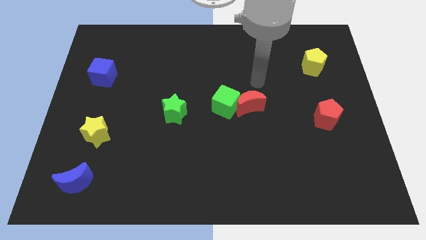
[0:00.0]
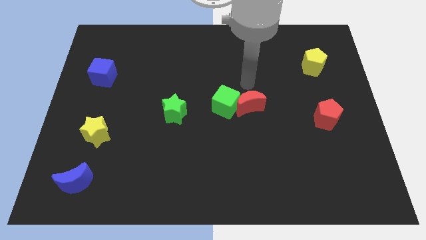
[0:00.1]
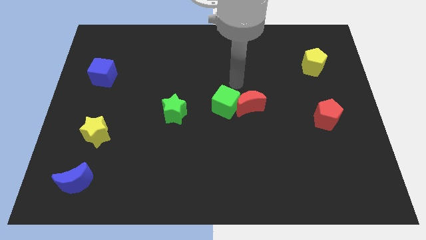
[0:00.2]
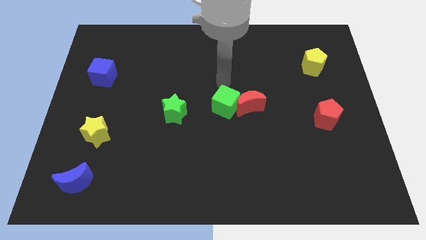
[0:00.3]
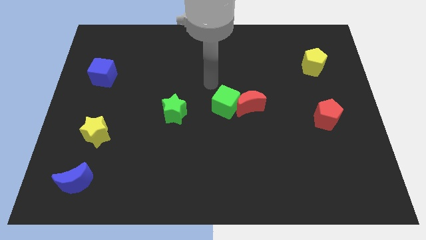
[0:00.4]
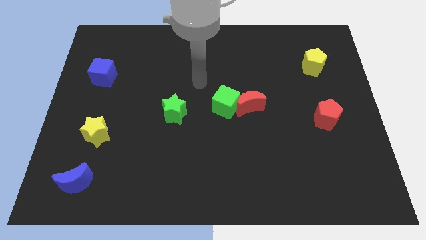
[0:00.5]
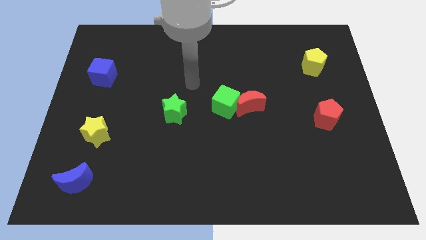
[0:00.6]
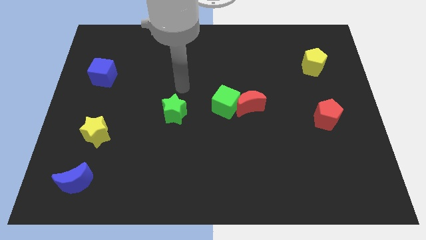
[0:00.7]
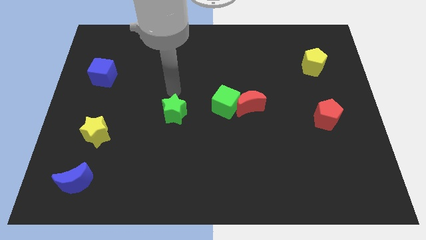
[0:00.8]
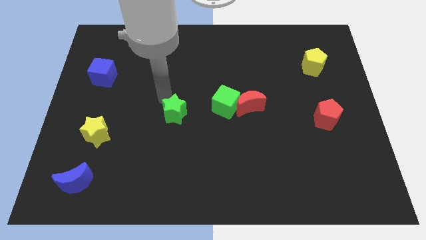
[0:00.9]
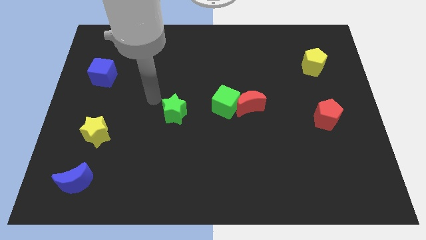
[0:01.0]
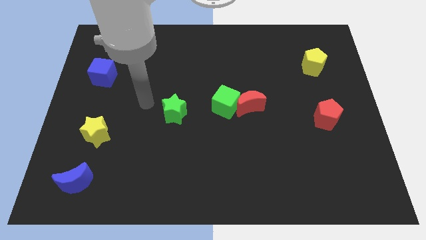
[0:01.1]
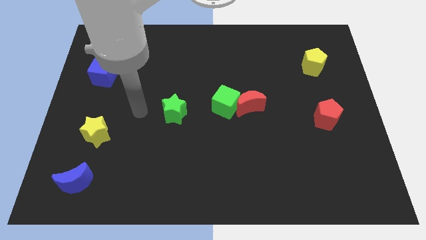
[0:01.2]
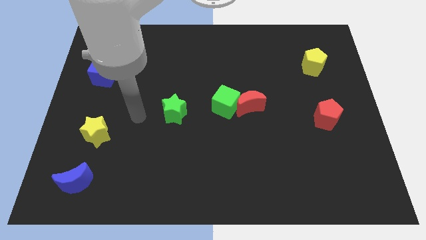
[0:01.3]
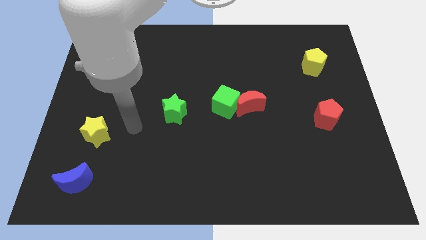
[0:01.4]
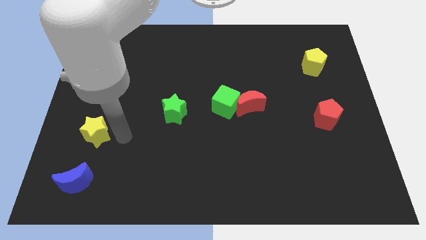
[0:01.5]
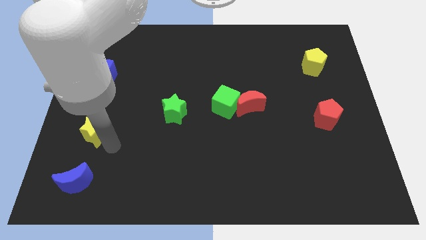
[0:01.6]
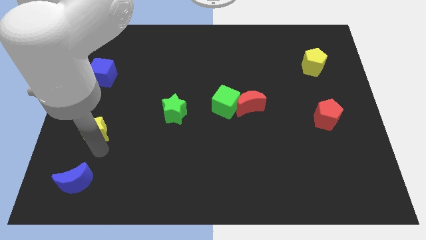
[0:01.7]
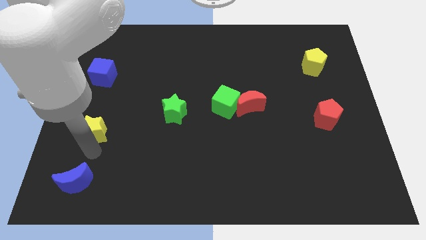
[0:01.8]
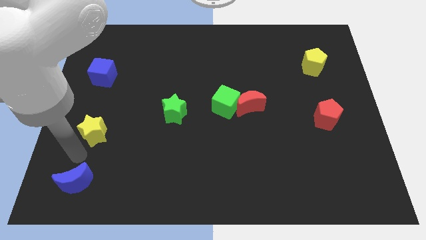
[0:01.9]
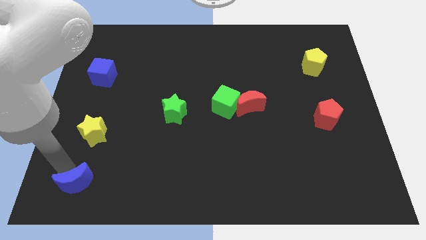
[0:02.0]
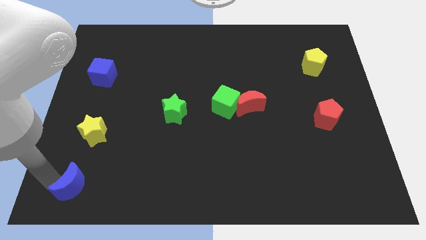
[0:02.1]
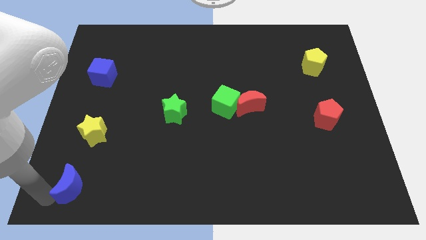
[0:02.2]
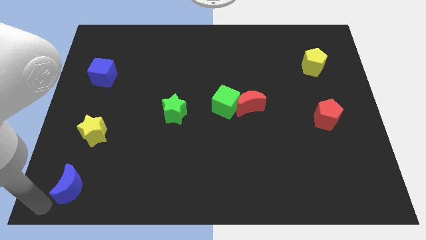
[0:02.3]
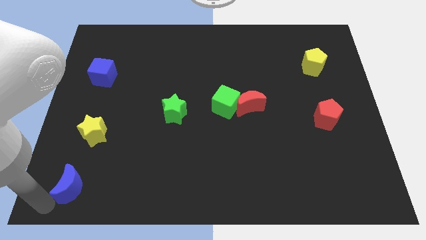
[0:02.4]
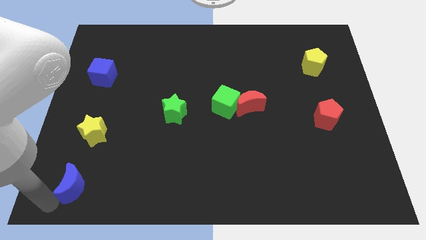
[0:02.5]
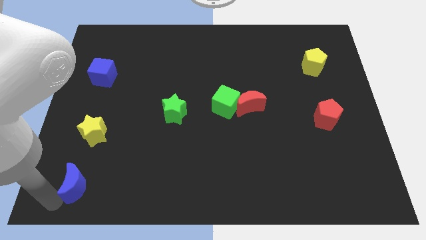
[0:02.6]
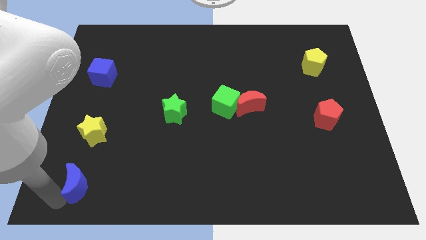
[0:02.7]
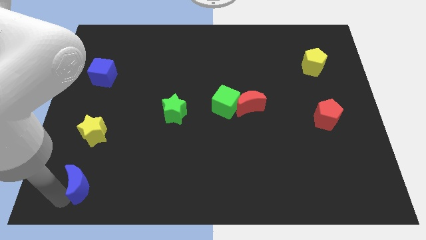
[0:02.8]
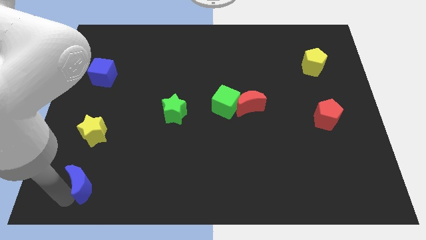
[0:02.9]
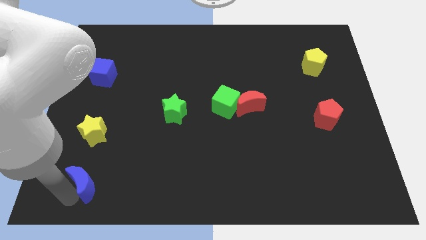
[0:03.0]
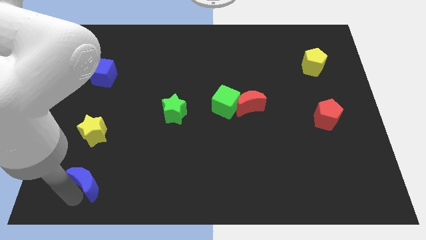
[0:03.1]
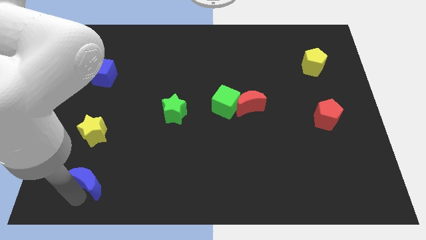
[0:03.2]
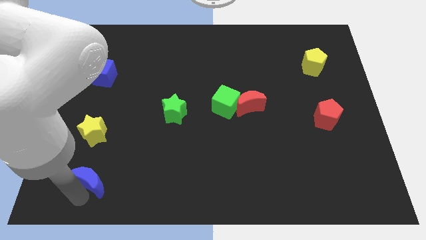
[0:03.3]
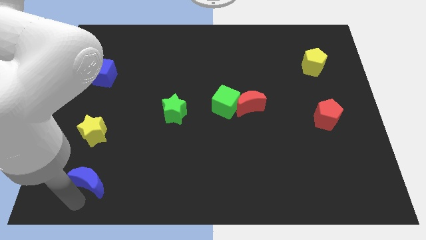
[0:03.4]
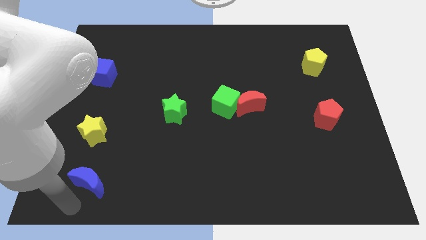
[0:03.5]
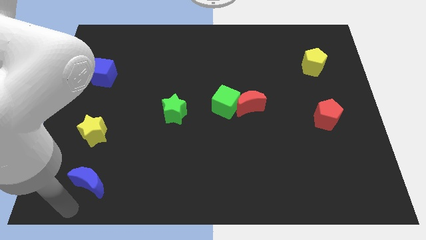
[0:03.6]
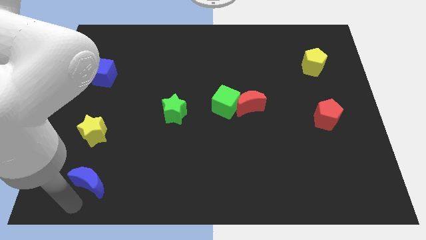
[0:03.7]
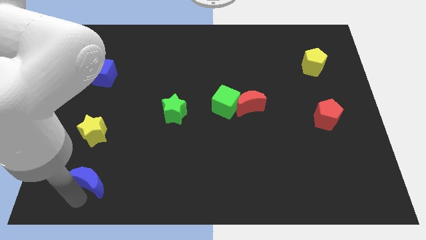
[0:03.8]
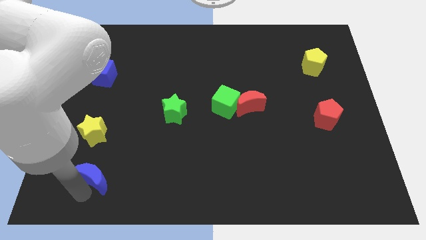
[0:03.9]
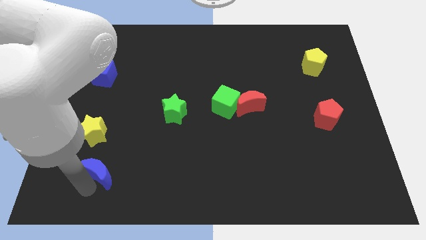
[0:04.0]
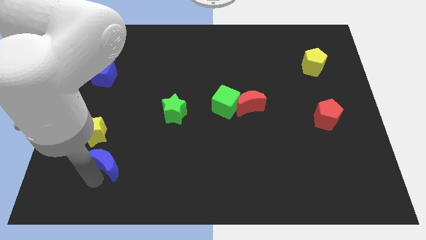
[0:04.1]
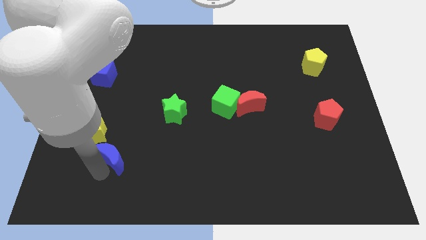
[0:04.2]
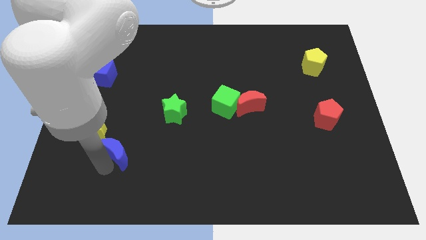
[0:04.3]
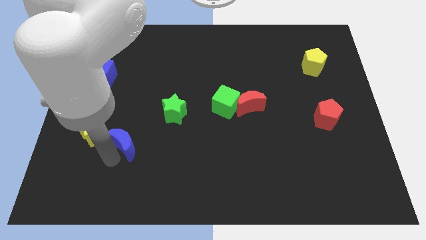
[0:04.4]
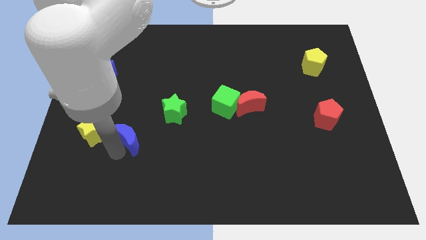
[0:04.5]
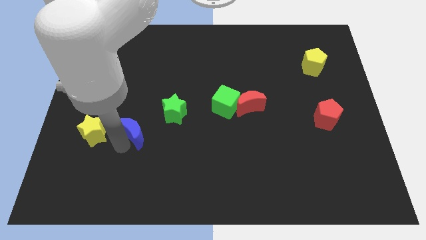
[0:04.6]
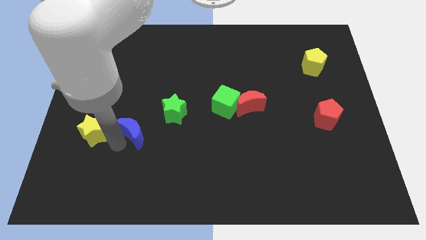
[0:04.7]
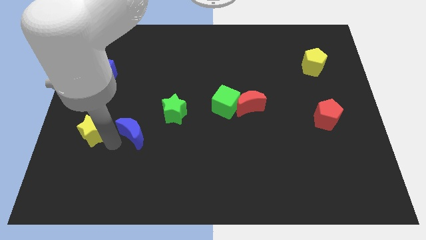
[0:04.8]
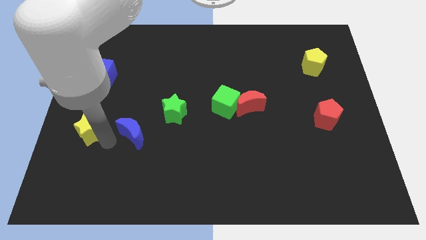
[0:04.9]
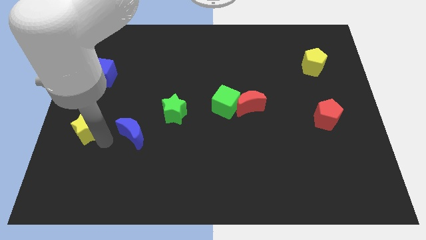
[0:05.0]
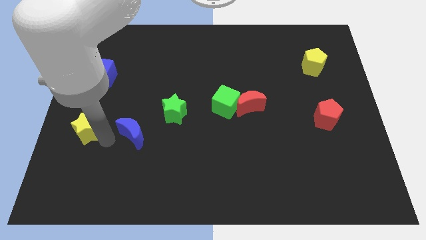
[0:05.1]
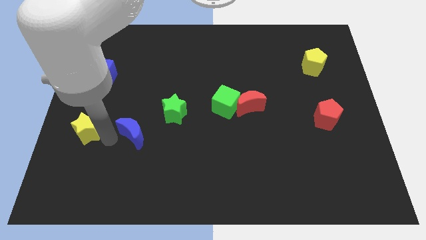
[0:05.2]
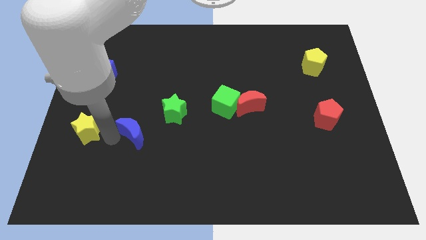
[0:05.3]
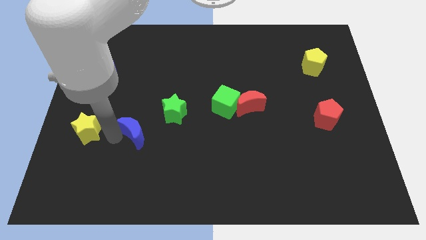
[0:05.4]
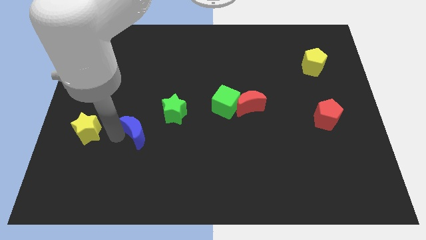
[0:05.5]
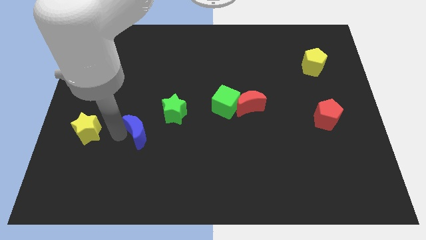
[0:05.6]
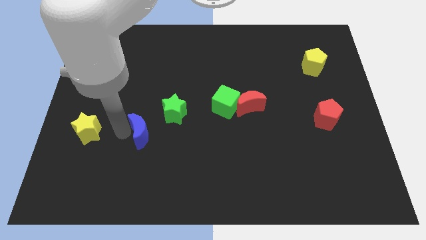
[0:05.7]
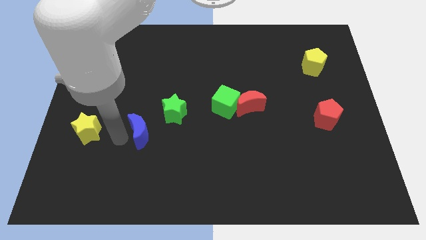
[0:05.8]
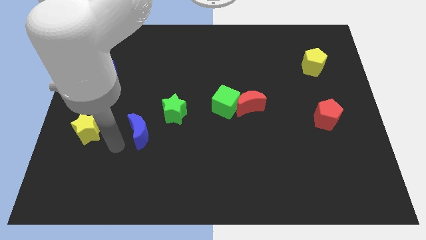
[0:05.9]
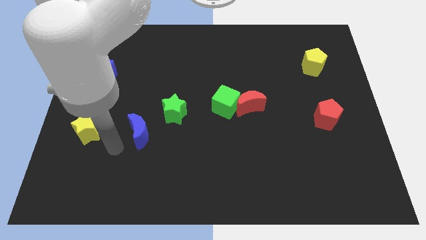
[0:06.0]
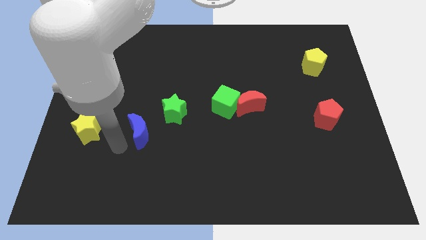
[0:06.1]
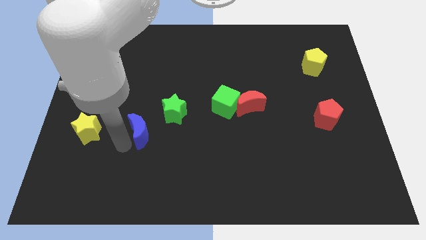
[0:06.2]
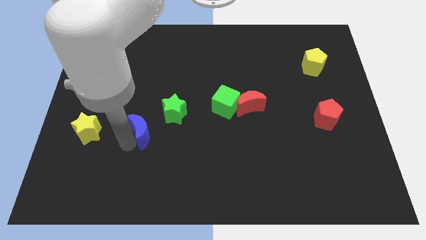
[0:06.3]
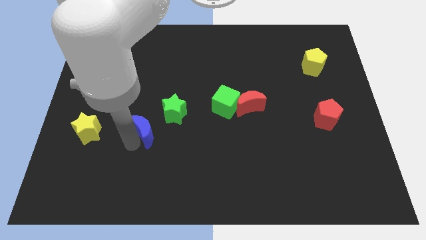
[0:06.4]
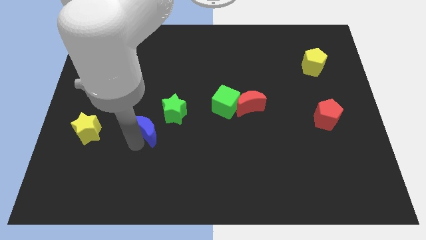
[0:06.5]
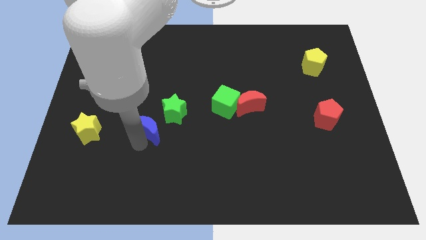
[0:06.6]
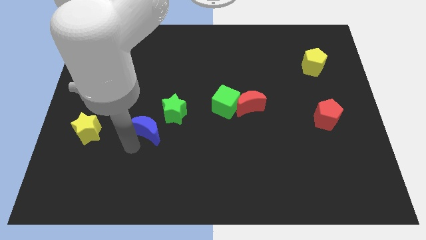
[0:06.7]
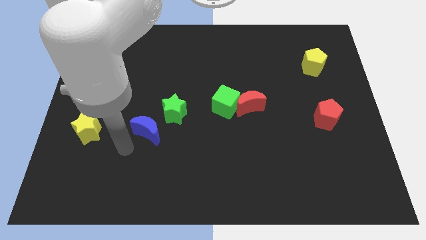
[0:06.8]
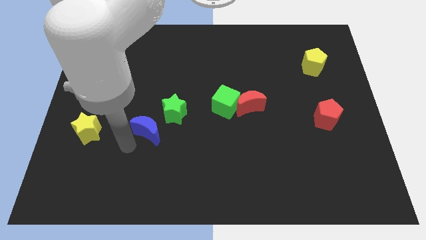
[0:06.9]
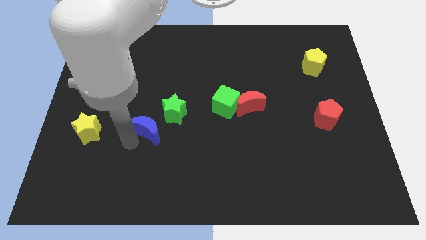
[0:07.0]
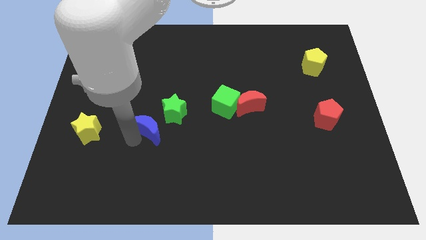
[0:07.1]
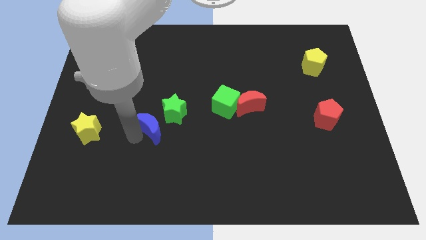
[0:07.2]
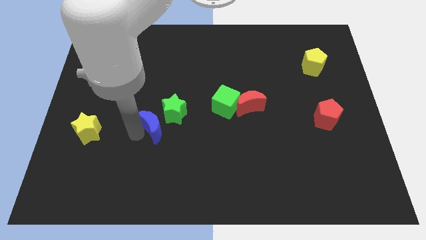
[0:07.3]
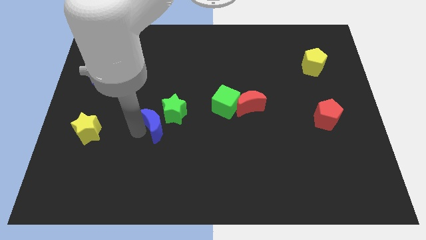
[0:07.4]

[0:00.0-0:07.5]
push the blue moon to the green star

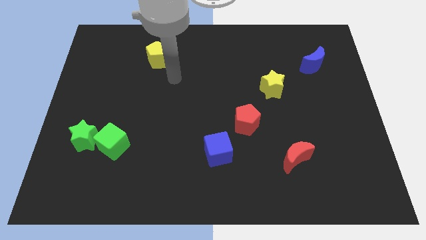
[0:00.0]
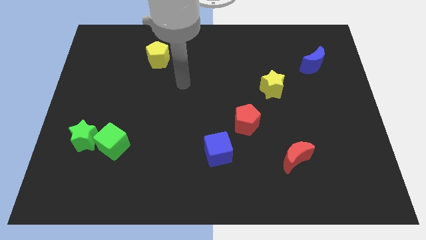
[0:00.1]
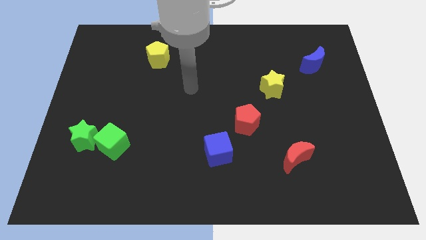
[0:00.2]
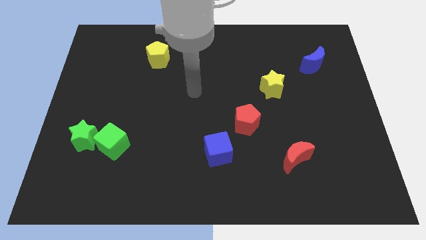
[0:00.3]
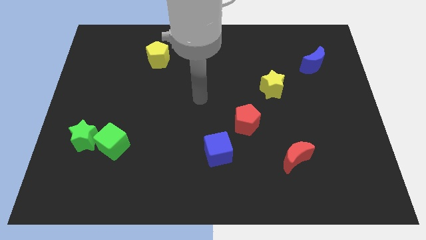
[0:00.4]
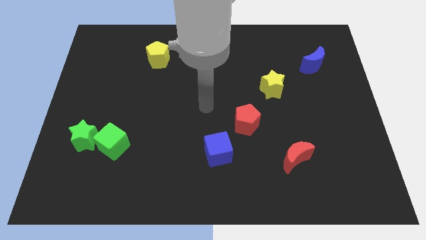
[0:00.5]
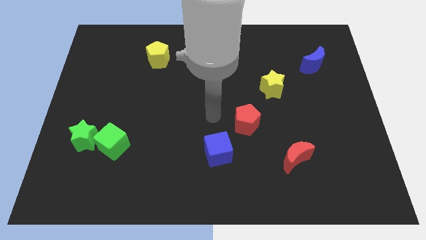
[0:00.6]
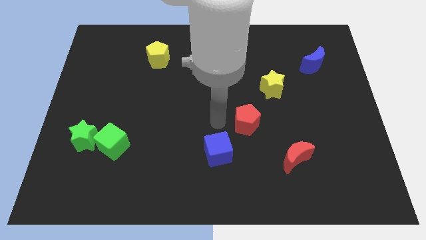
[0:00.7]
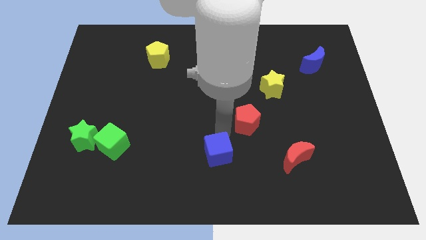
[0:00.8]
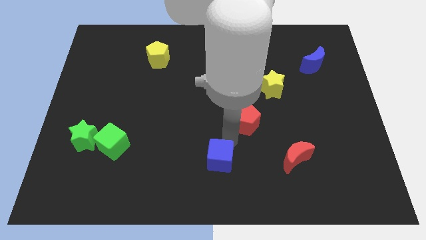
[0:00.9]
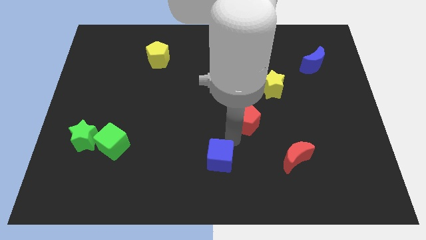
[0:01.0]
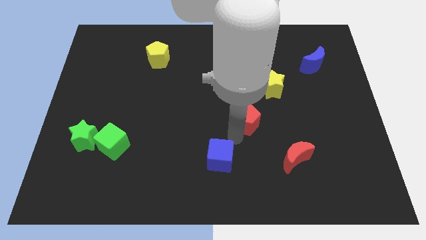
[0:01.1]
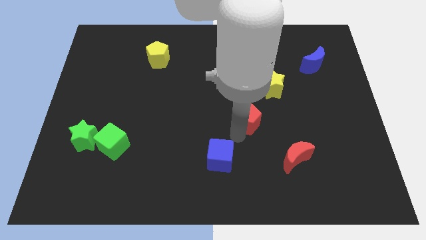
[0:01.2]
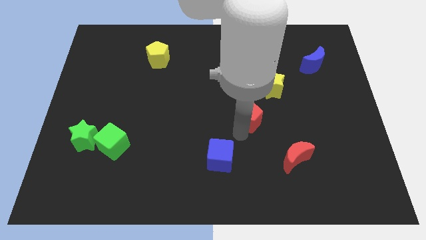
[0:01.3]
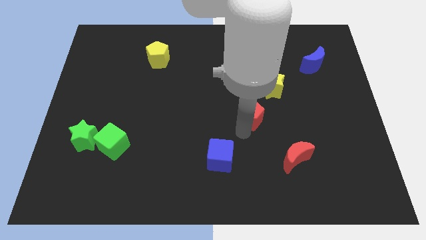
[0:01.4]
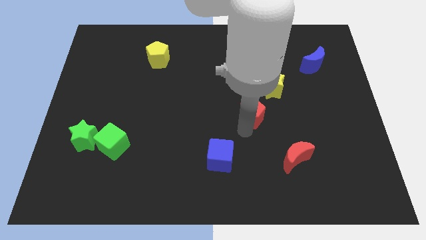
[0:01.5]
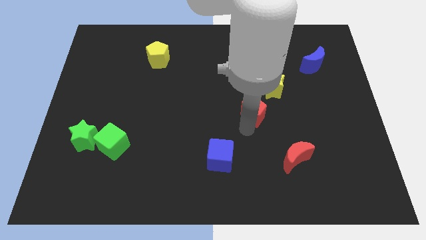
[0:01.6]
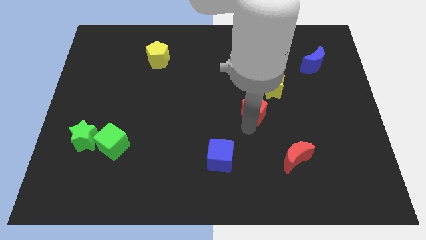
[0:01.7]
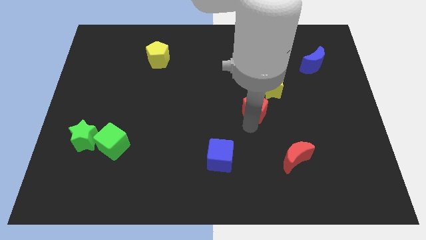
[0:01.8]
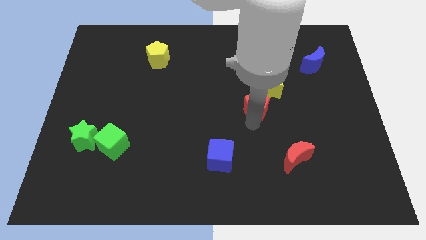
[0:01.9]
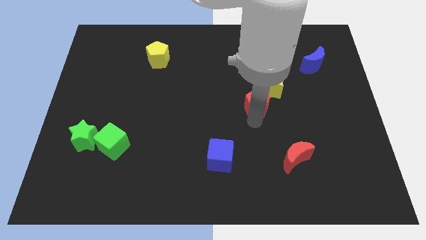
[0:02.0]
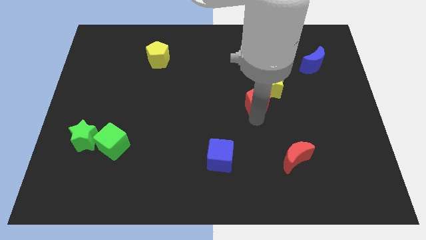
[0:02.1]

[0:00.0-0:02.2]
move the red pentagon to the yellow star
